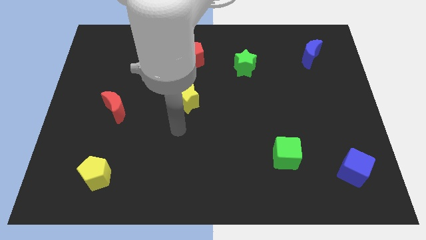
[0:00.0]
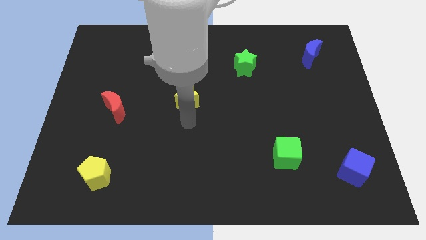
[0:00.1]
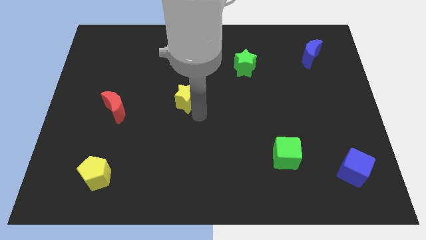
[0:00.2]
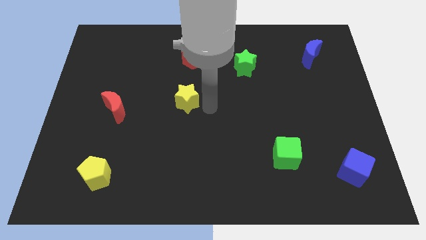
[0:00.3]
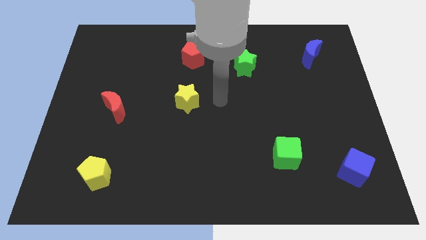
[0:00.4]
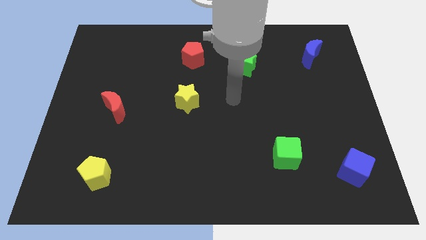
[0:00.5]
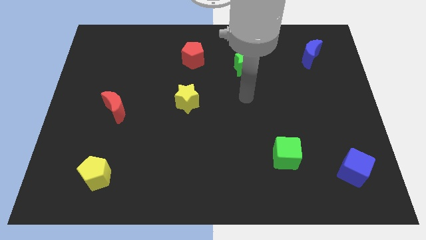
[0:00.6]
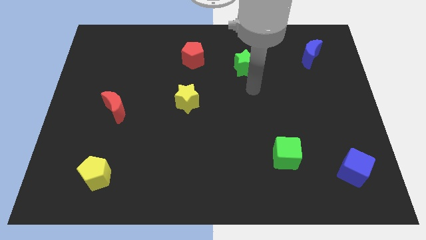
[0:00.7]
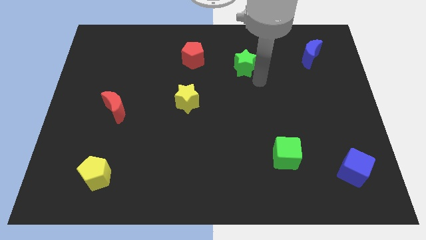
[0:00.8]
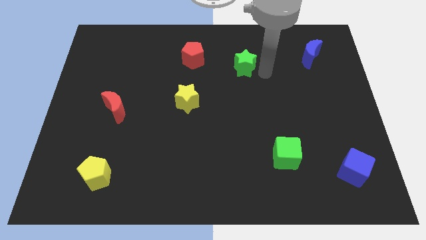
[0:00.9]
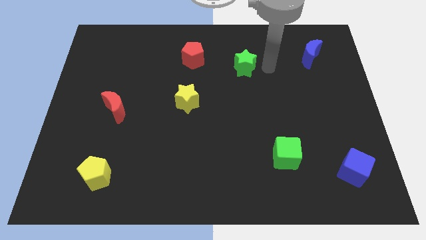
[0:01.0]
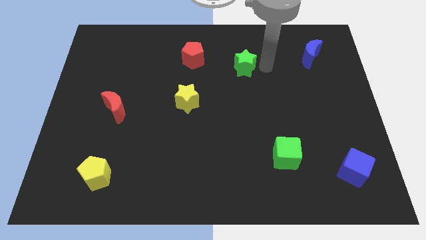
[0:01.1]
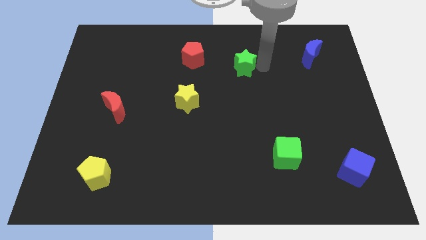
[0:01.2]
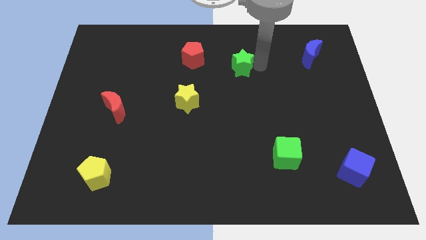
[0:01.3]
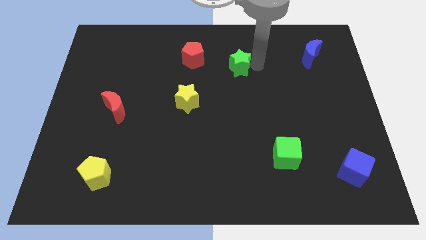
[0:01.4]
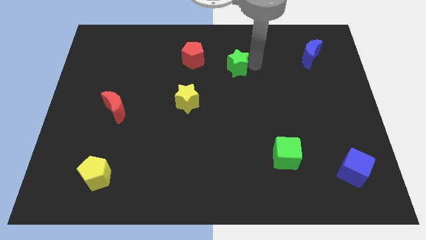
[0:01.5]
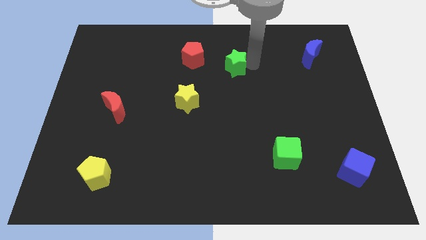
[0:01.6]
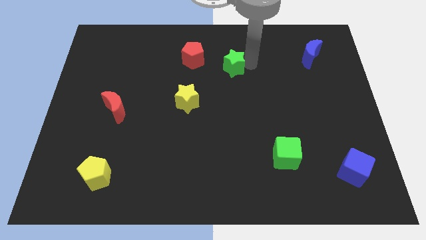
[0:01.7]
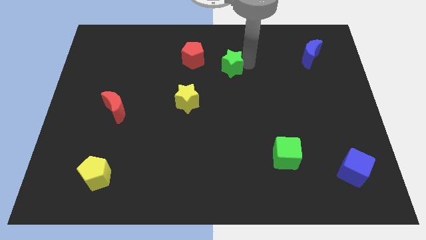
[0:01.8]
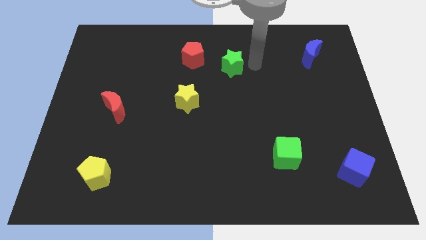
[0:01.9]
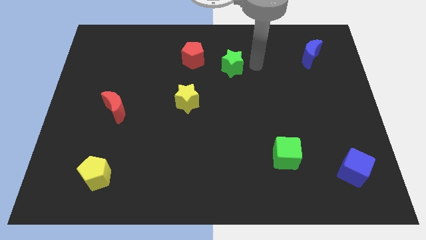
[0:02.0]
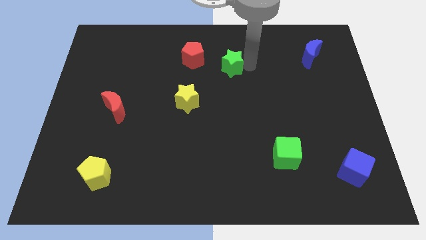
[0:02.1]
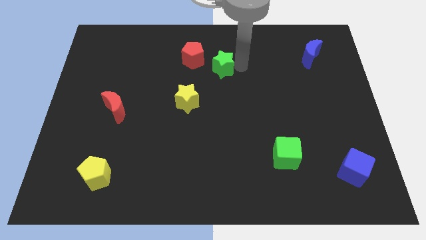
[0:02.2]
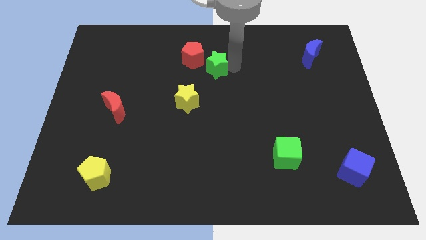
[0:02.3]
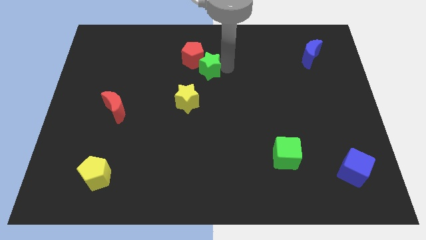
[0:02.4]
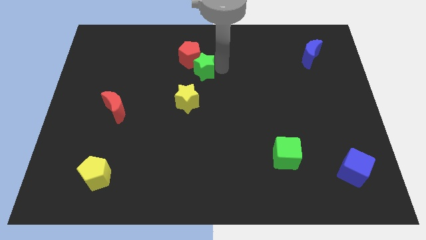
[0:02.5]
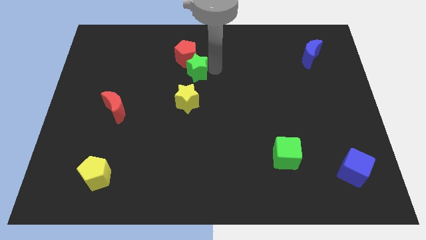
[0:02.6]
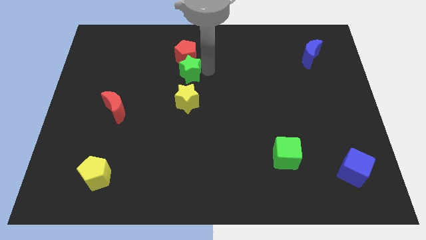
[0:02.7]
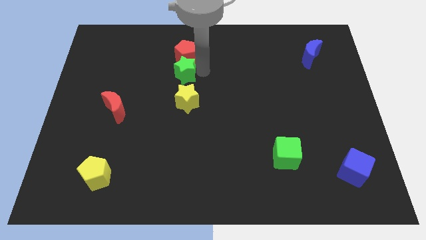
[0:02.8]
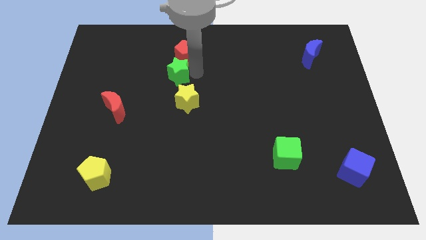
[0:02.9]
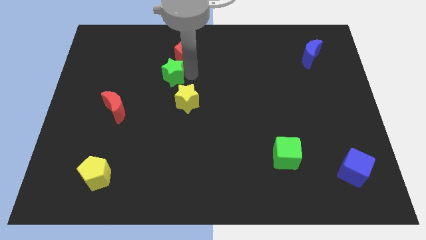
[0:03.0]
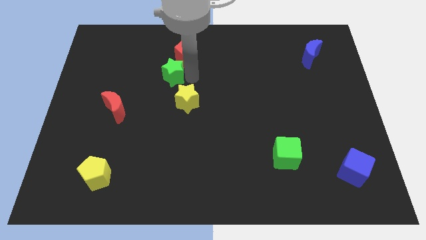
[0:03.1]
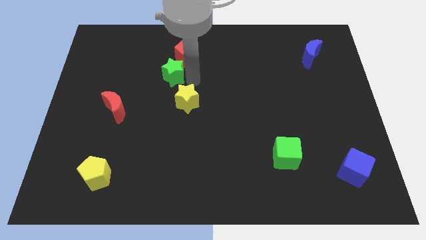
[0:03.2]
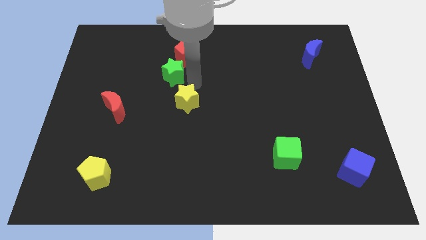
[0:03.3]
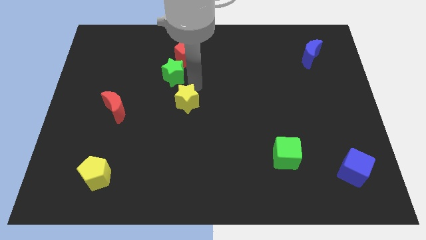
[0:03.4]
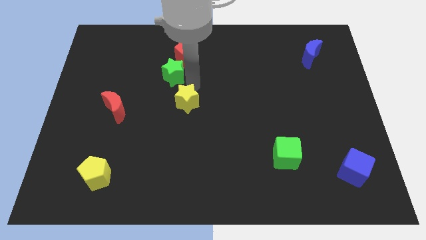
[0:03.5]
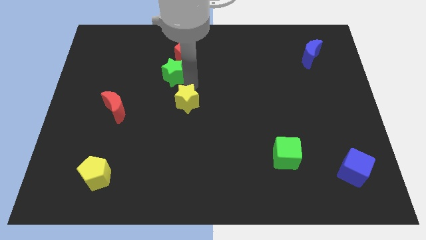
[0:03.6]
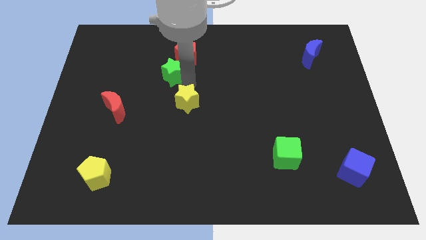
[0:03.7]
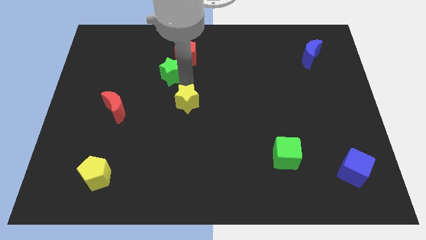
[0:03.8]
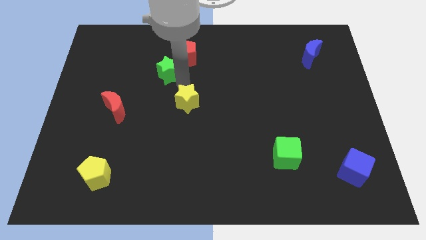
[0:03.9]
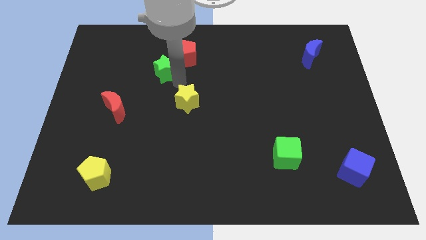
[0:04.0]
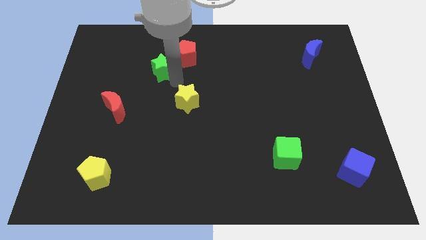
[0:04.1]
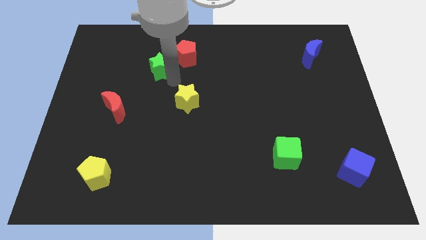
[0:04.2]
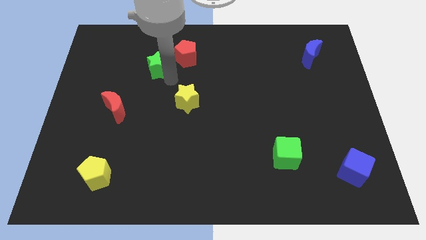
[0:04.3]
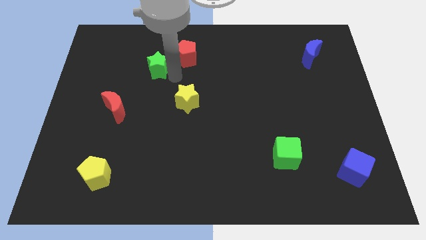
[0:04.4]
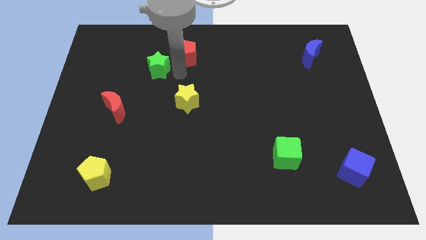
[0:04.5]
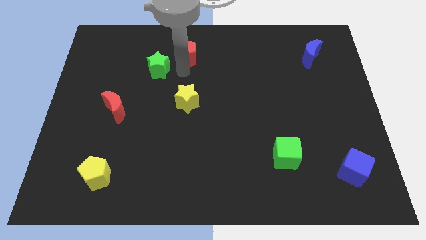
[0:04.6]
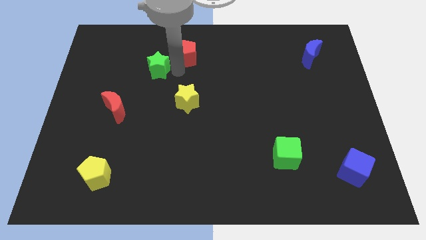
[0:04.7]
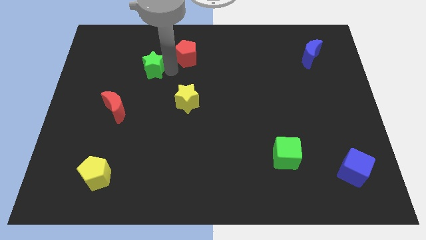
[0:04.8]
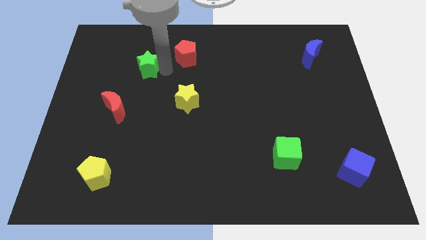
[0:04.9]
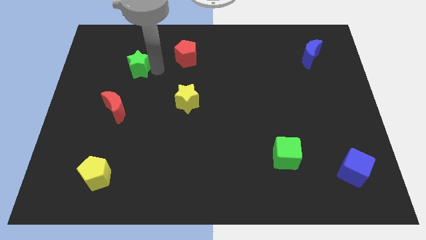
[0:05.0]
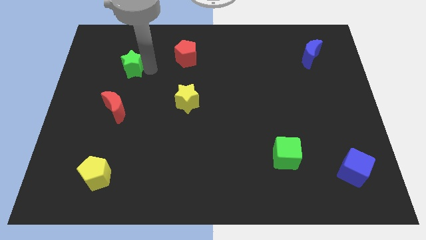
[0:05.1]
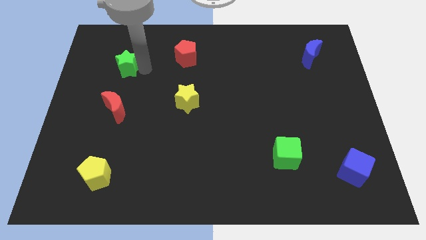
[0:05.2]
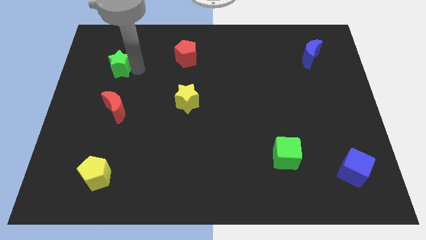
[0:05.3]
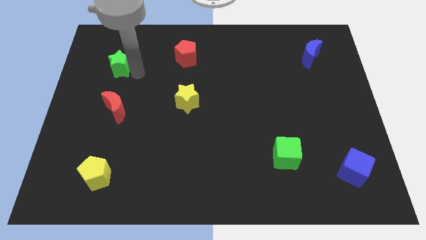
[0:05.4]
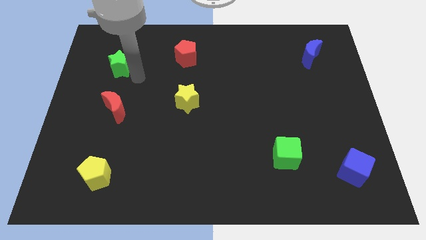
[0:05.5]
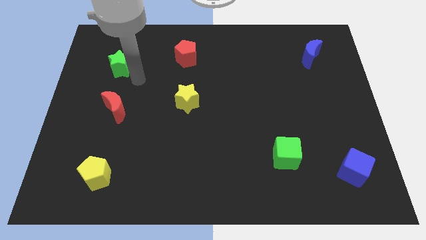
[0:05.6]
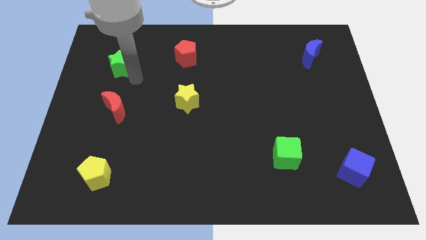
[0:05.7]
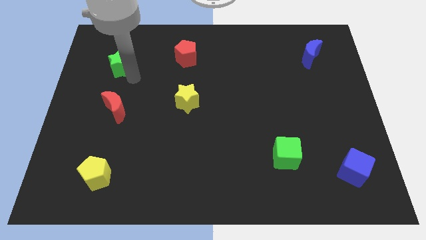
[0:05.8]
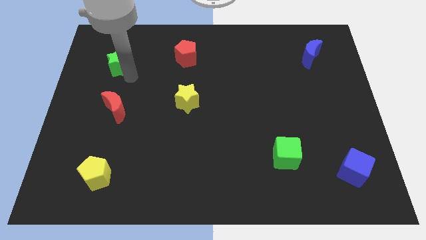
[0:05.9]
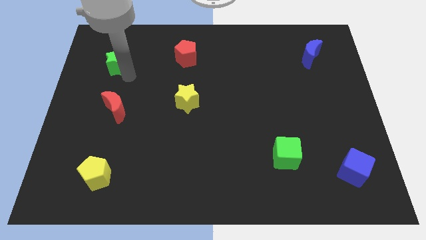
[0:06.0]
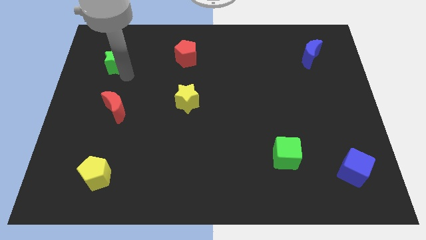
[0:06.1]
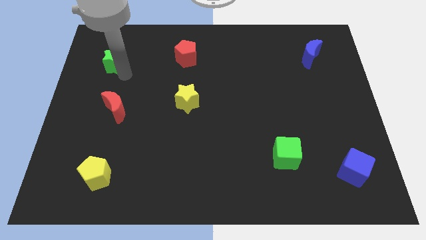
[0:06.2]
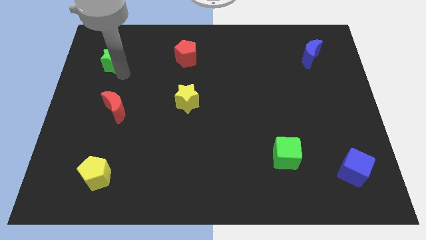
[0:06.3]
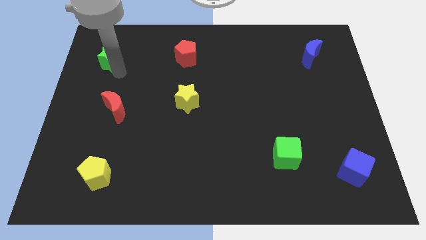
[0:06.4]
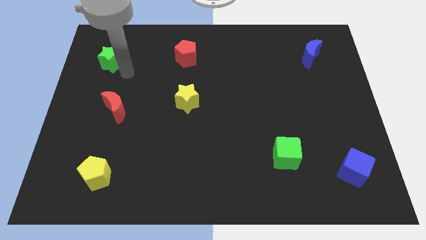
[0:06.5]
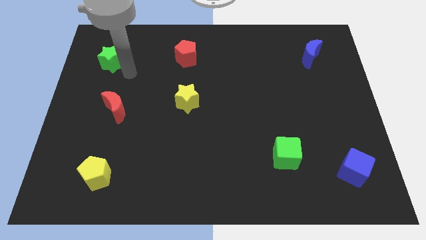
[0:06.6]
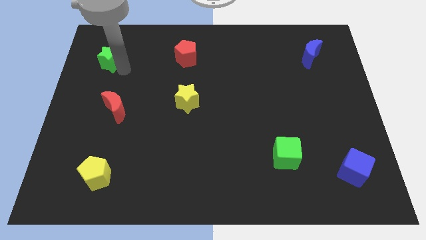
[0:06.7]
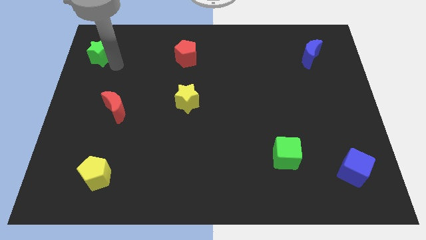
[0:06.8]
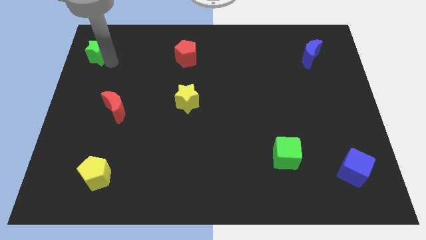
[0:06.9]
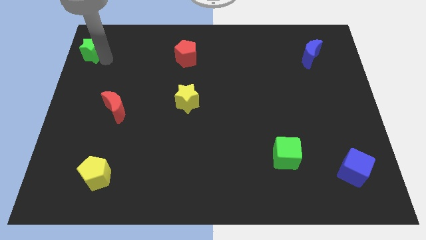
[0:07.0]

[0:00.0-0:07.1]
move the green star to the top left
